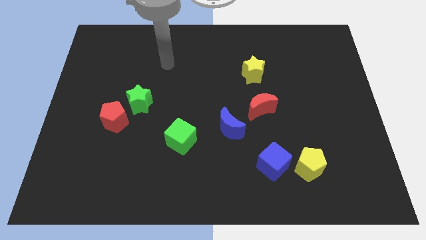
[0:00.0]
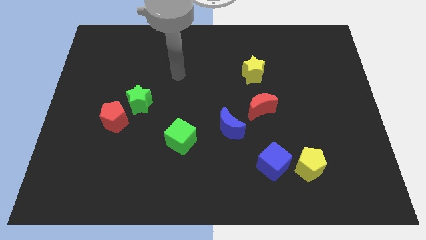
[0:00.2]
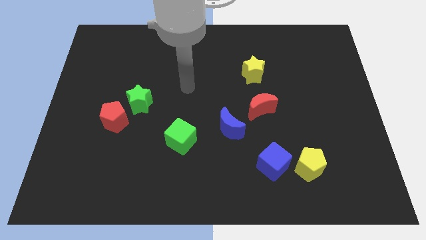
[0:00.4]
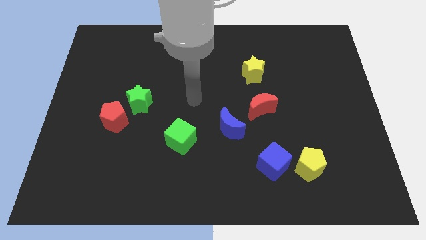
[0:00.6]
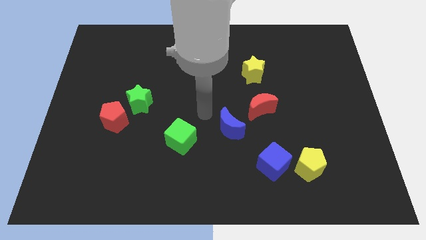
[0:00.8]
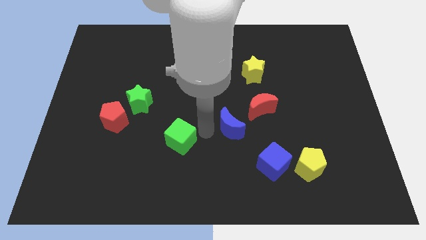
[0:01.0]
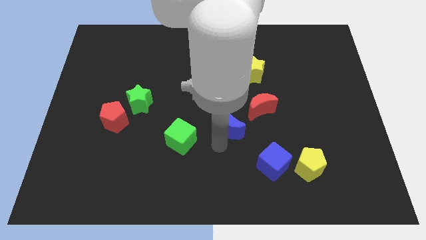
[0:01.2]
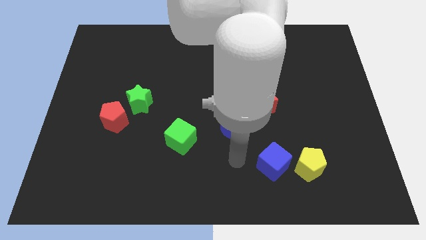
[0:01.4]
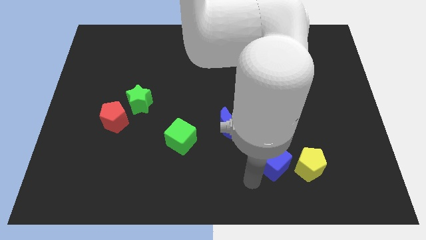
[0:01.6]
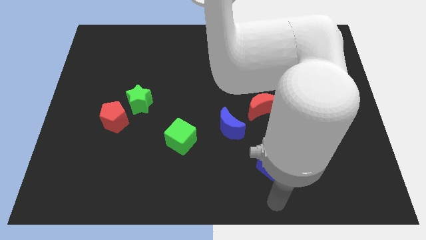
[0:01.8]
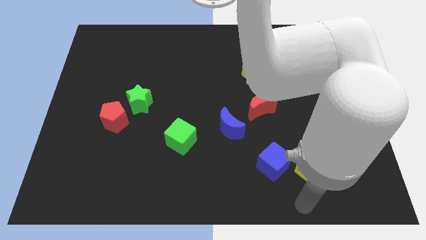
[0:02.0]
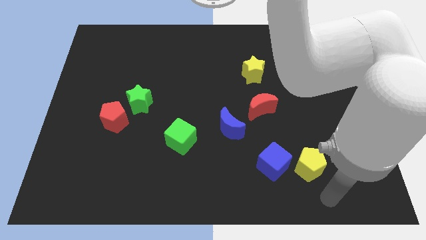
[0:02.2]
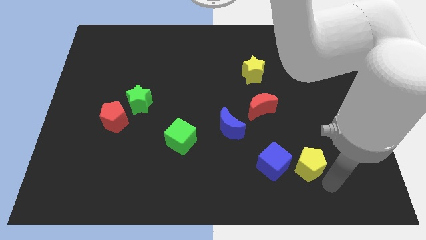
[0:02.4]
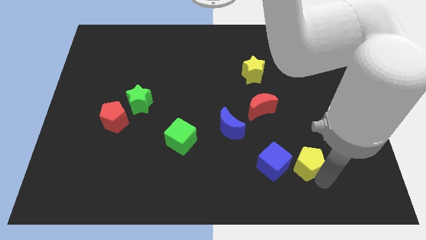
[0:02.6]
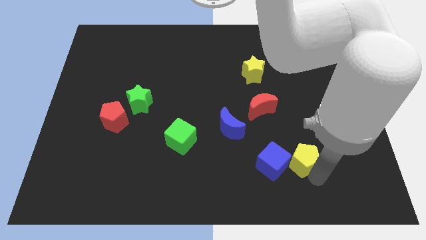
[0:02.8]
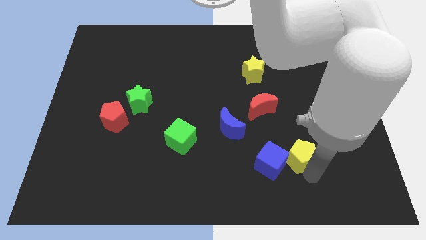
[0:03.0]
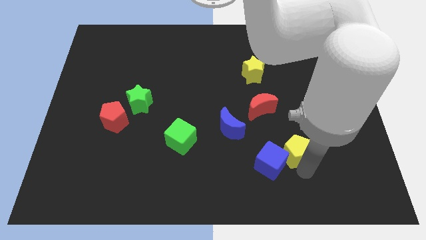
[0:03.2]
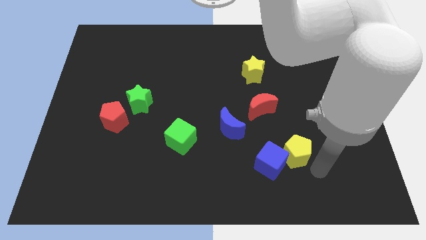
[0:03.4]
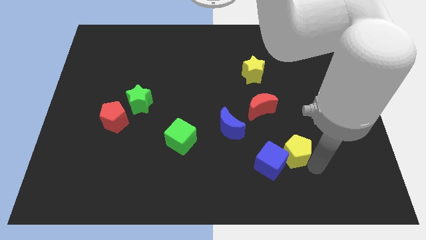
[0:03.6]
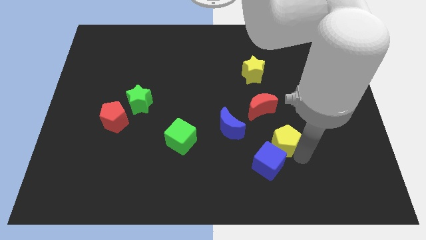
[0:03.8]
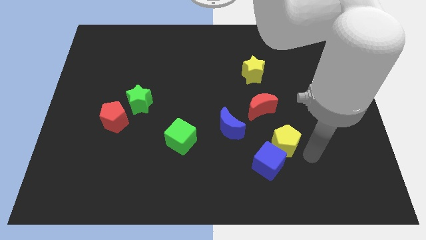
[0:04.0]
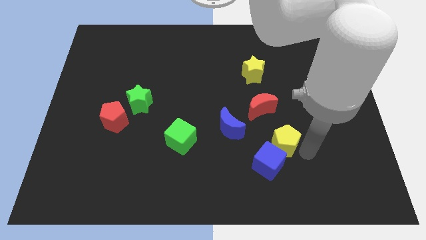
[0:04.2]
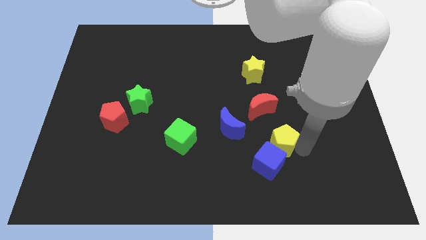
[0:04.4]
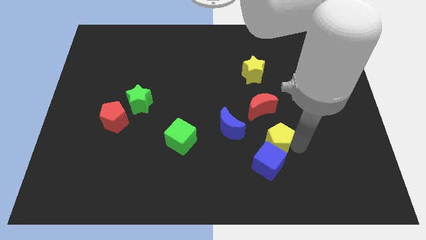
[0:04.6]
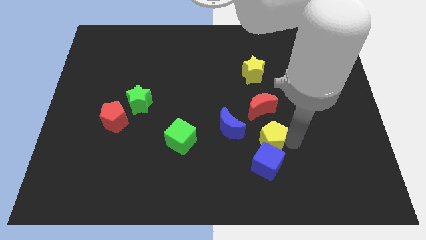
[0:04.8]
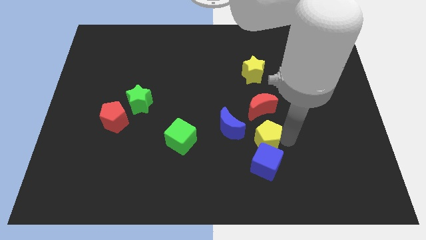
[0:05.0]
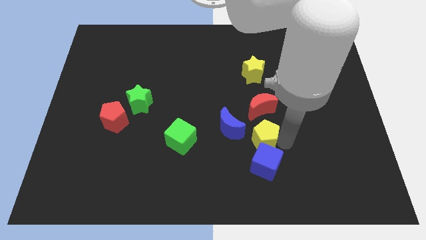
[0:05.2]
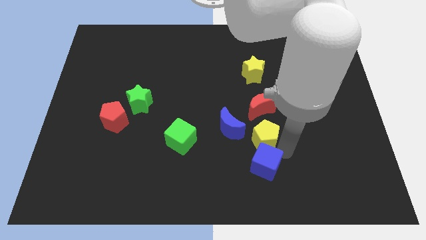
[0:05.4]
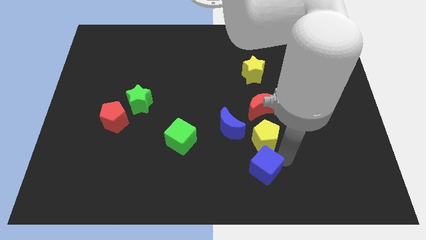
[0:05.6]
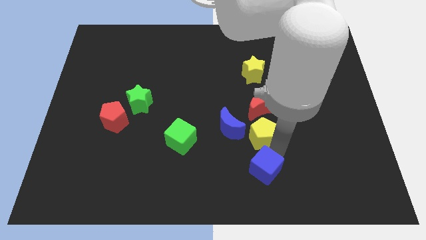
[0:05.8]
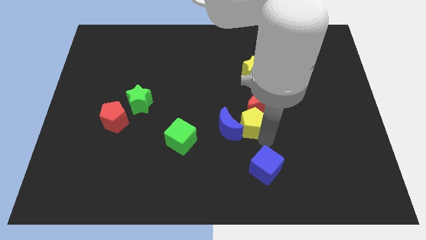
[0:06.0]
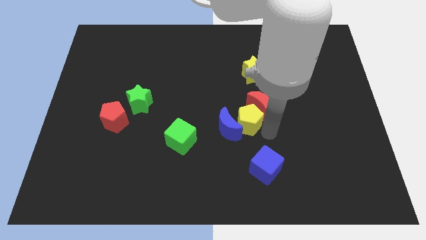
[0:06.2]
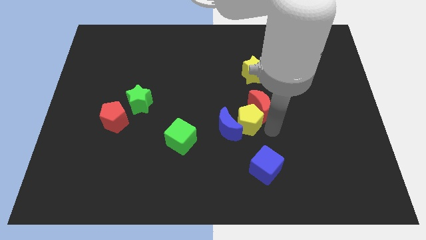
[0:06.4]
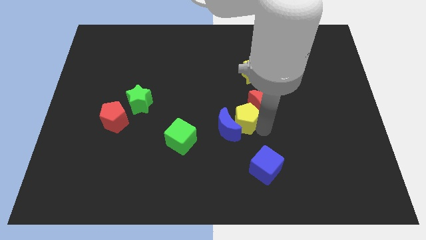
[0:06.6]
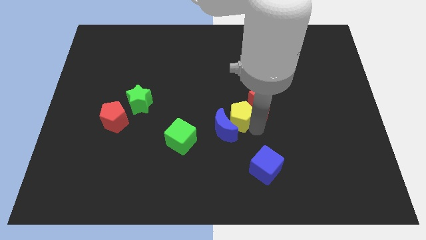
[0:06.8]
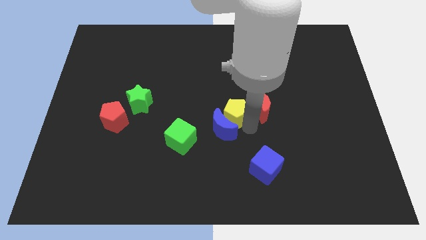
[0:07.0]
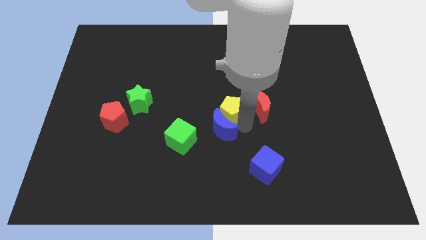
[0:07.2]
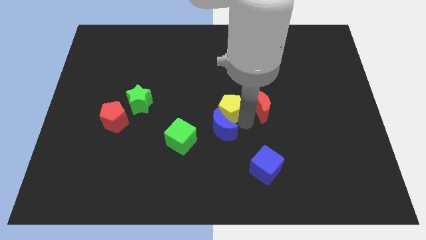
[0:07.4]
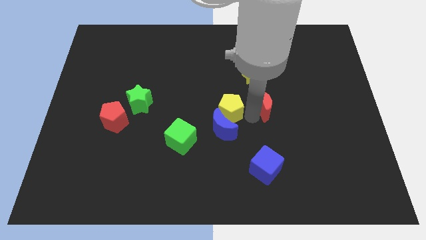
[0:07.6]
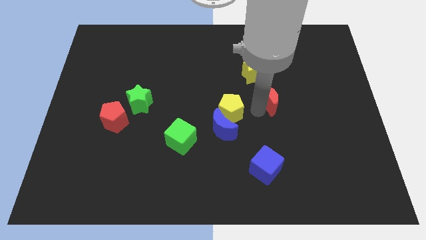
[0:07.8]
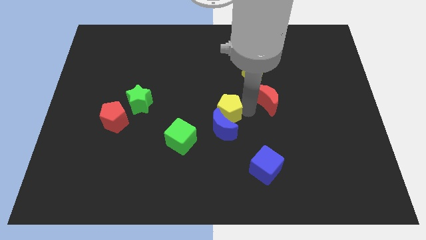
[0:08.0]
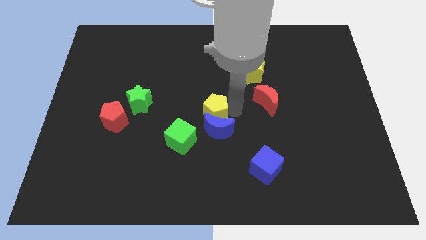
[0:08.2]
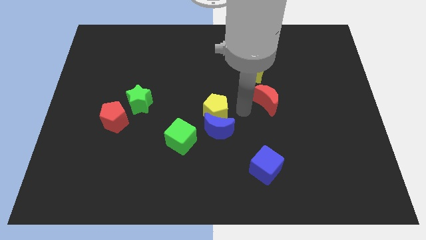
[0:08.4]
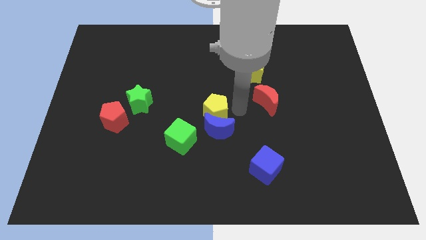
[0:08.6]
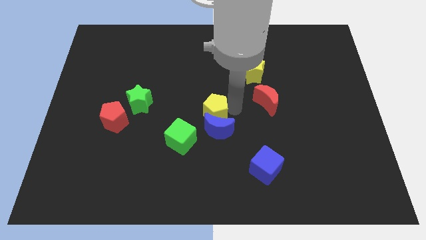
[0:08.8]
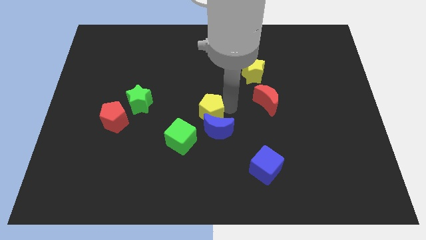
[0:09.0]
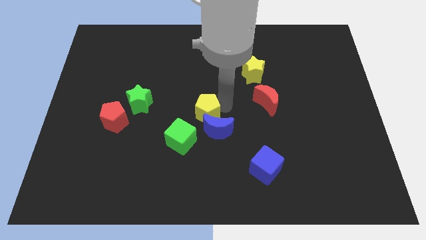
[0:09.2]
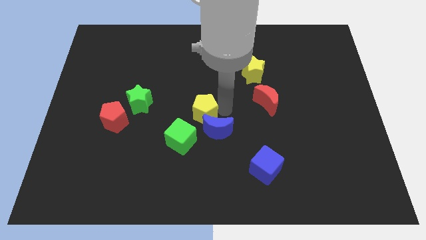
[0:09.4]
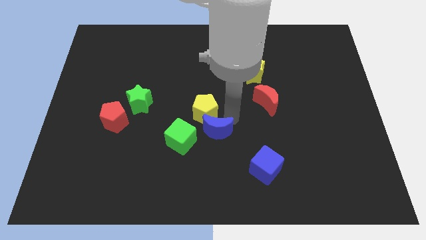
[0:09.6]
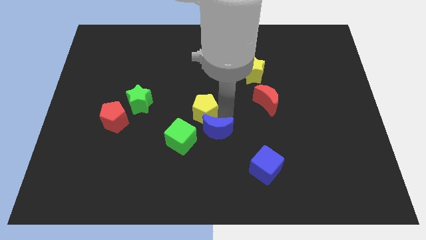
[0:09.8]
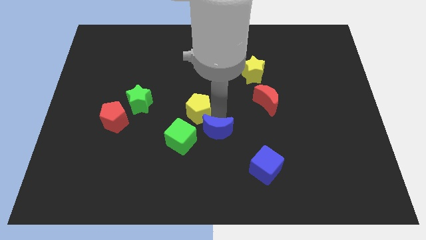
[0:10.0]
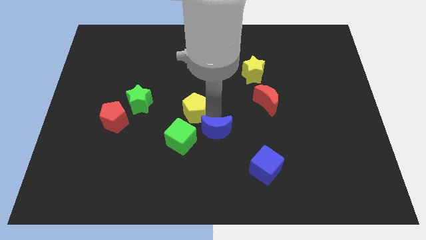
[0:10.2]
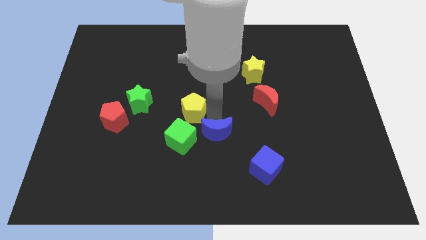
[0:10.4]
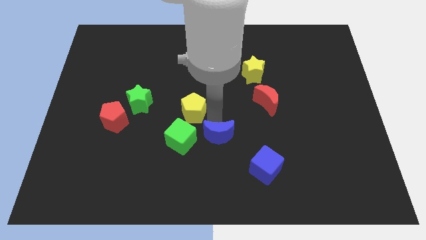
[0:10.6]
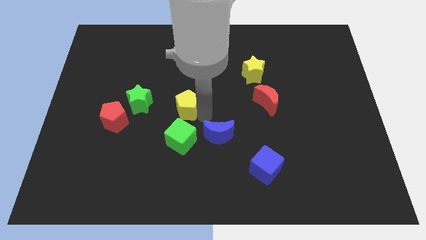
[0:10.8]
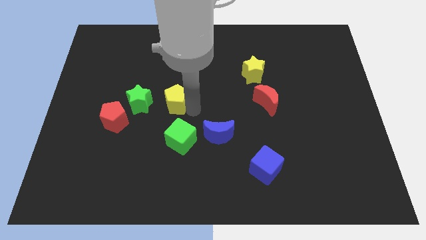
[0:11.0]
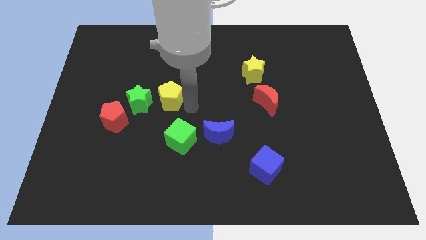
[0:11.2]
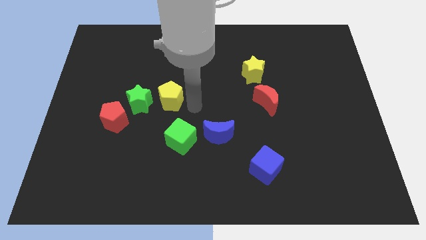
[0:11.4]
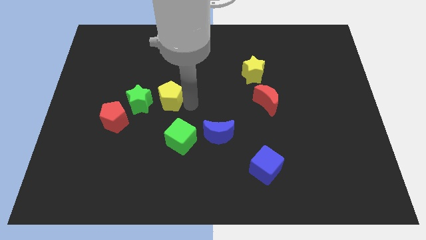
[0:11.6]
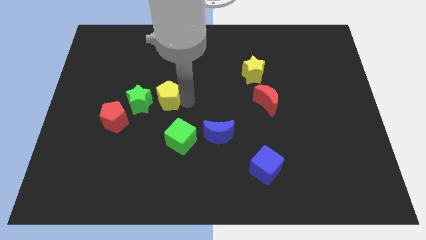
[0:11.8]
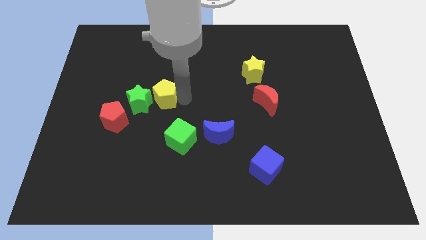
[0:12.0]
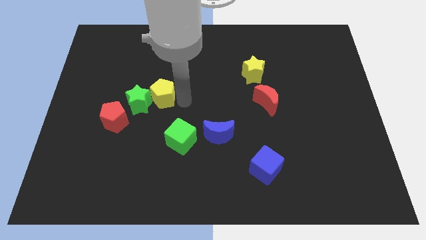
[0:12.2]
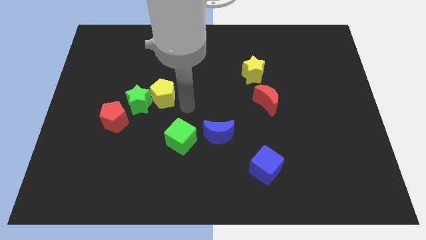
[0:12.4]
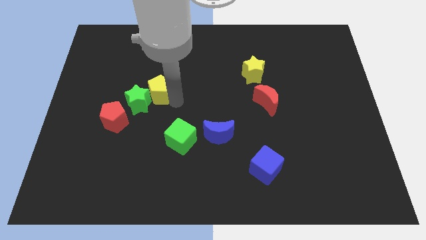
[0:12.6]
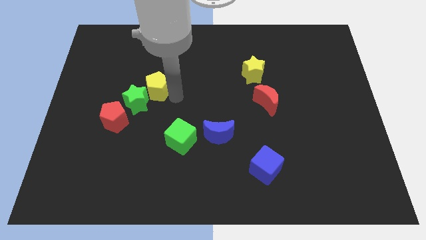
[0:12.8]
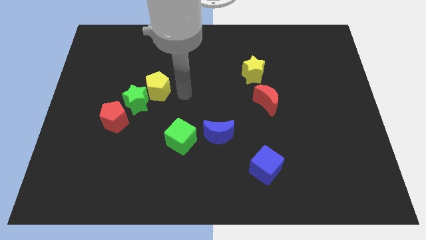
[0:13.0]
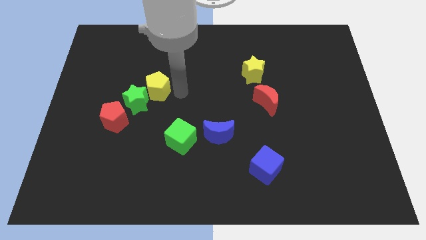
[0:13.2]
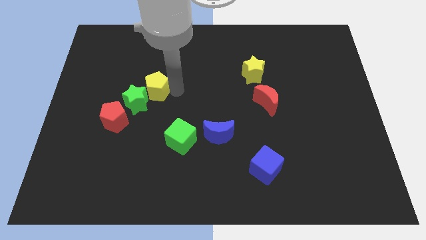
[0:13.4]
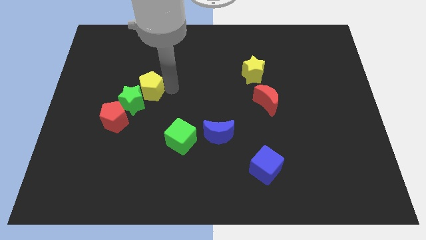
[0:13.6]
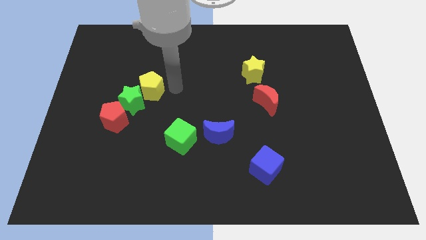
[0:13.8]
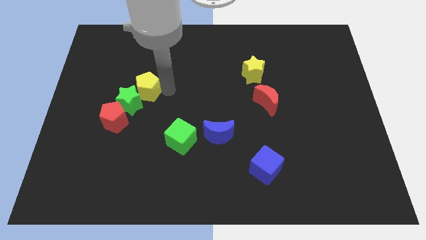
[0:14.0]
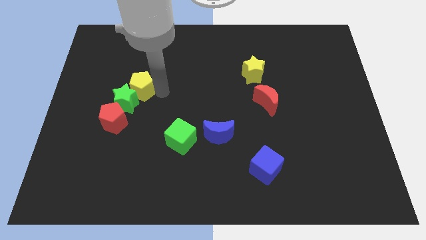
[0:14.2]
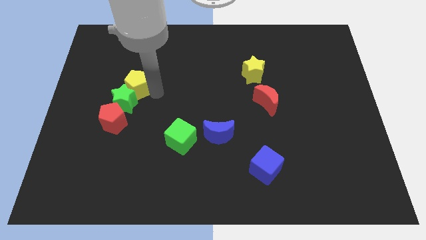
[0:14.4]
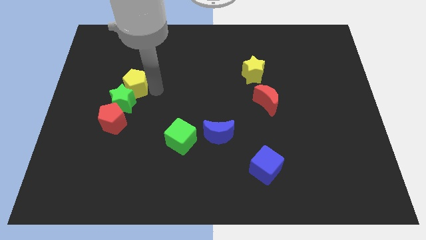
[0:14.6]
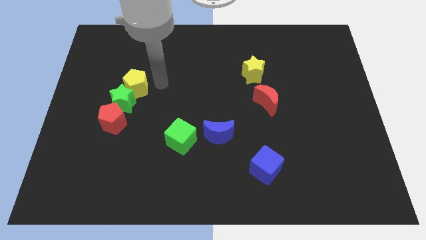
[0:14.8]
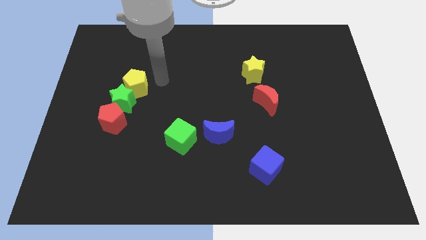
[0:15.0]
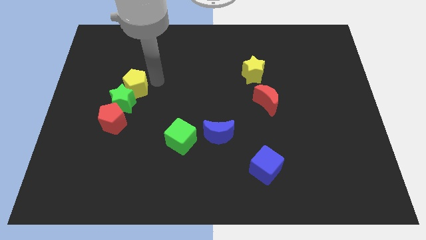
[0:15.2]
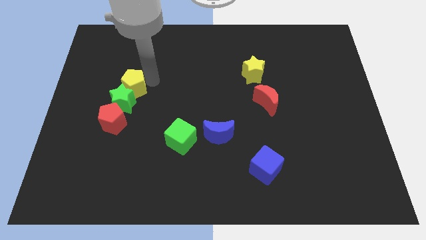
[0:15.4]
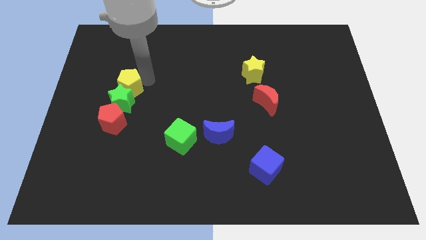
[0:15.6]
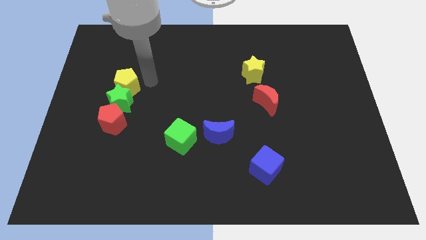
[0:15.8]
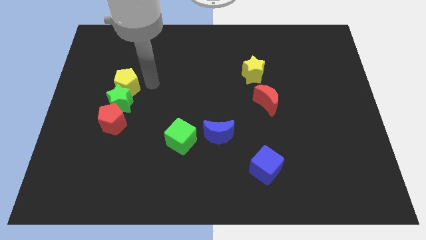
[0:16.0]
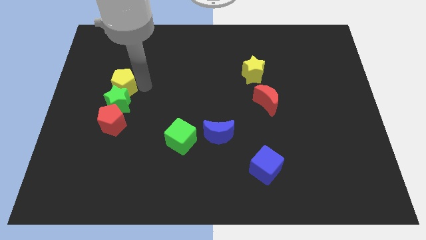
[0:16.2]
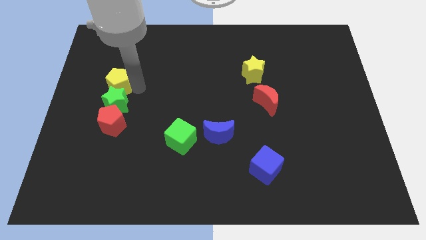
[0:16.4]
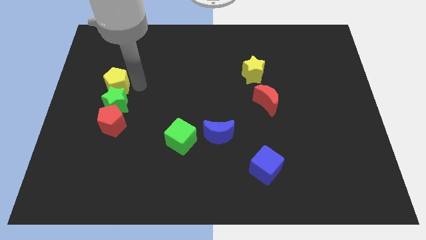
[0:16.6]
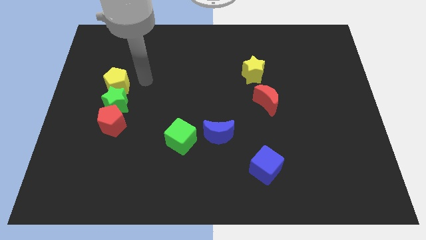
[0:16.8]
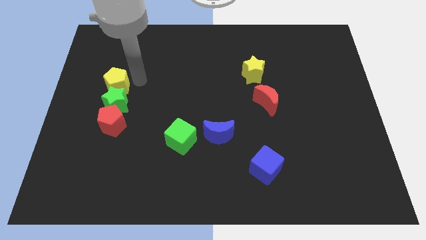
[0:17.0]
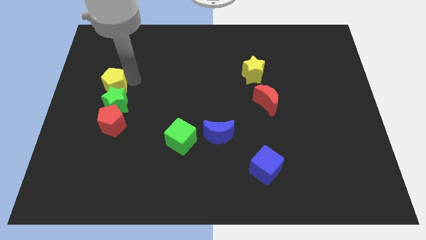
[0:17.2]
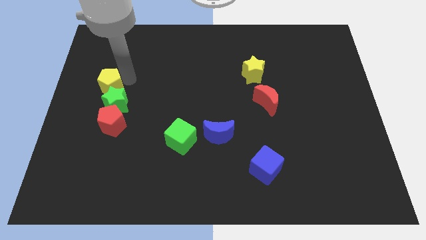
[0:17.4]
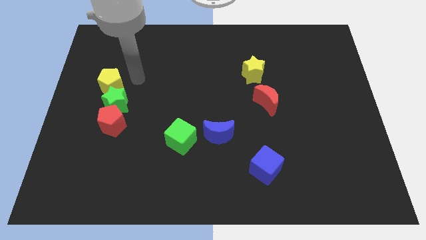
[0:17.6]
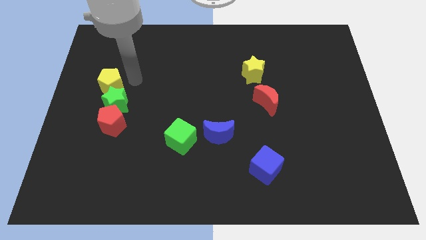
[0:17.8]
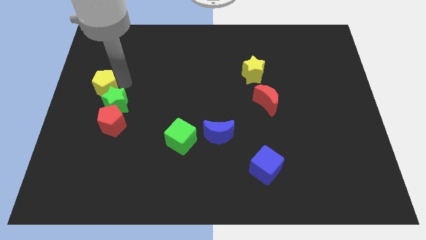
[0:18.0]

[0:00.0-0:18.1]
push the yellow pentagon to the left side
